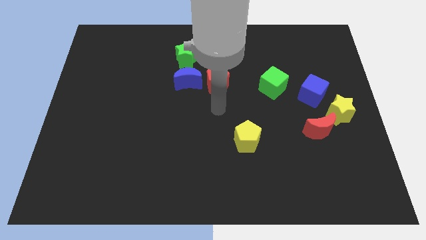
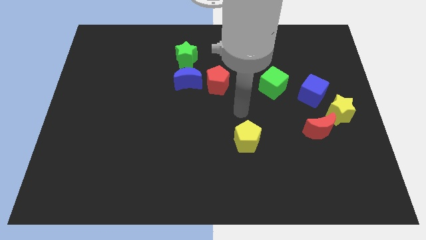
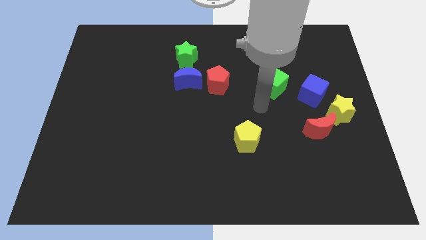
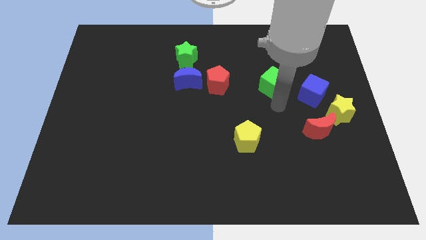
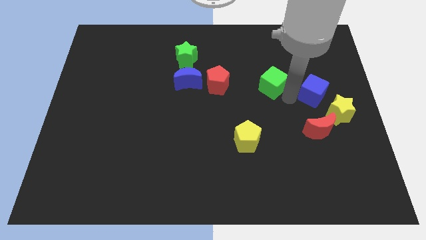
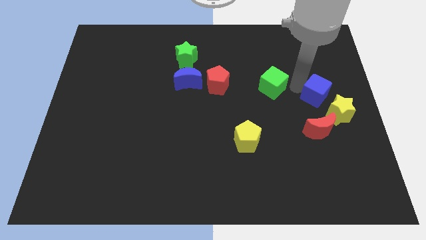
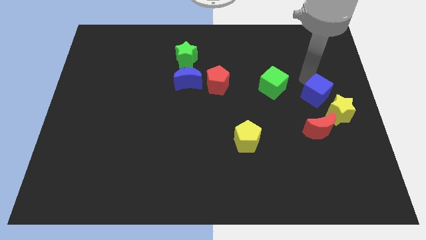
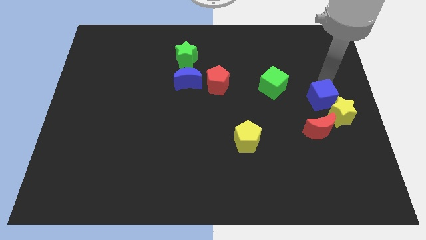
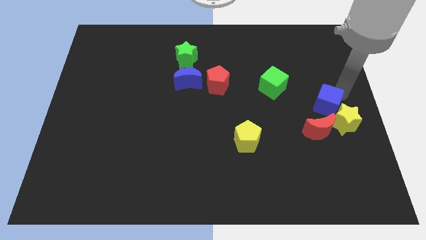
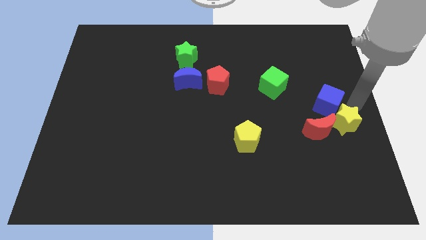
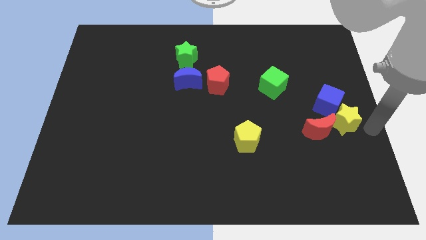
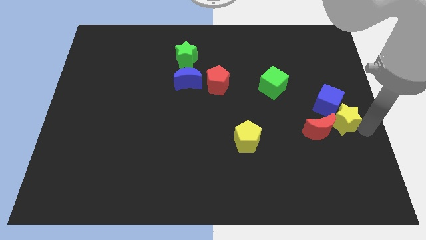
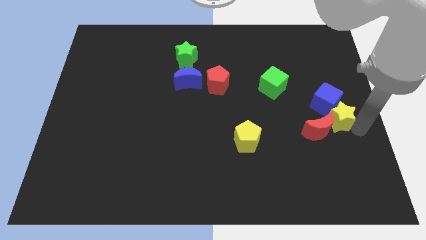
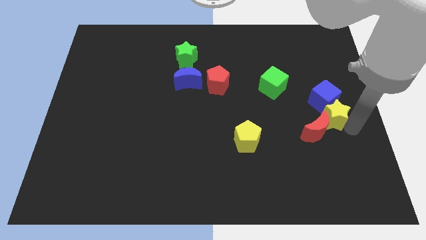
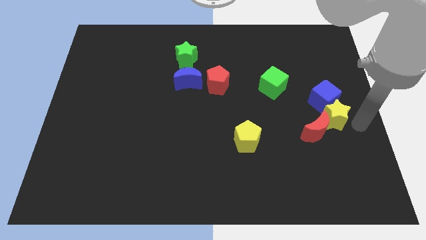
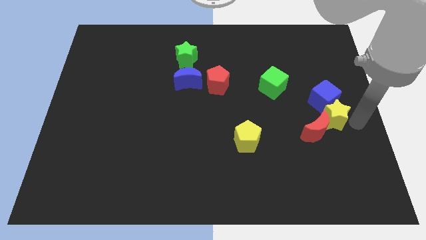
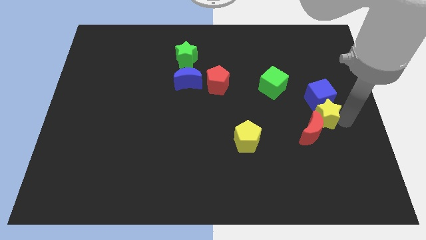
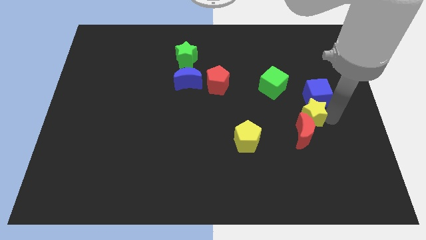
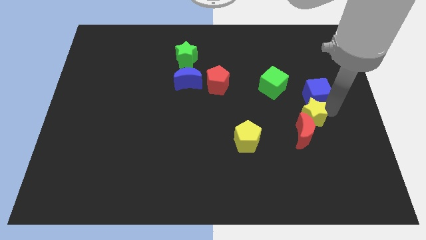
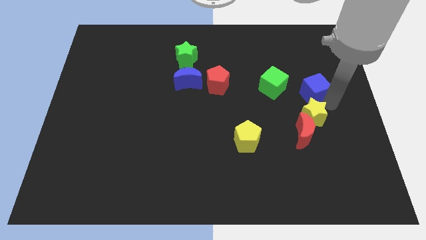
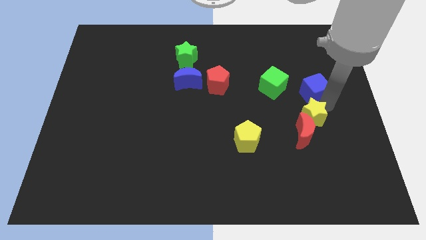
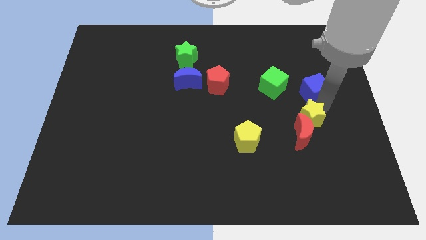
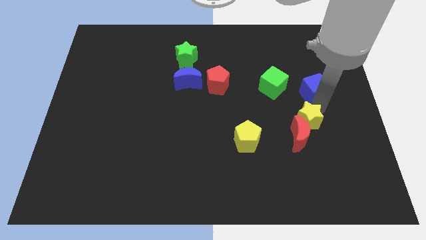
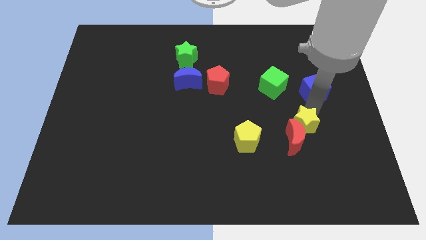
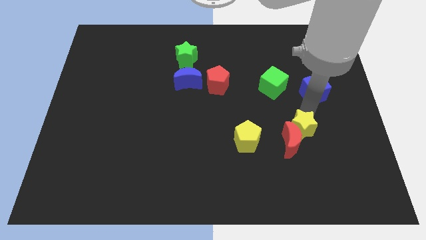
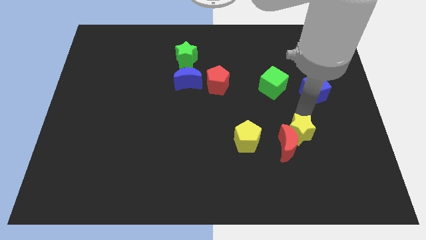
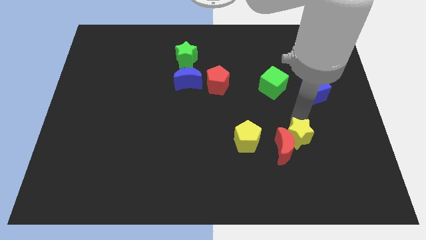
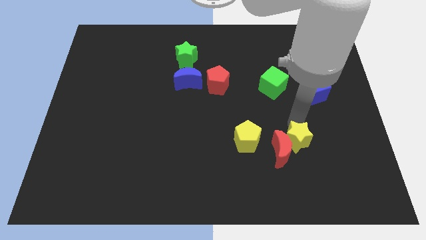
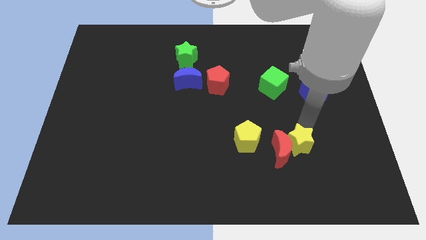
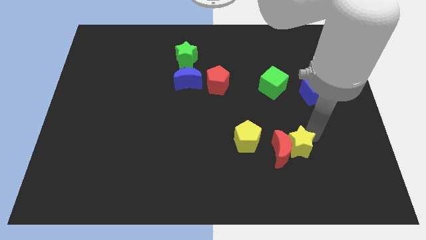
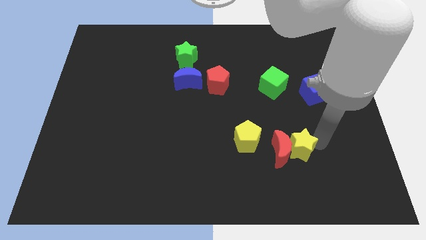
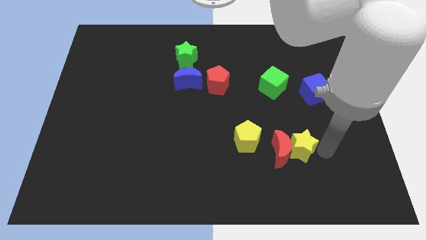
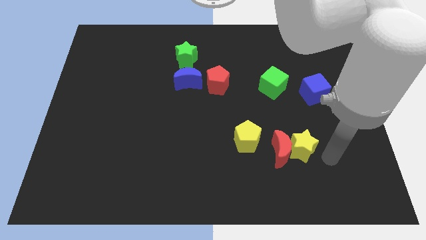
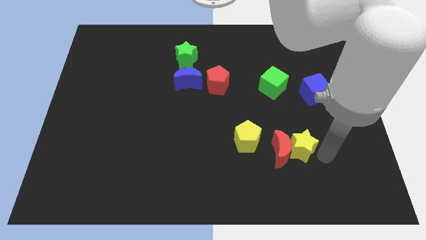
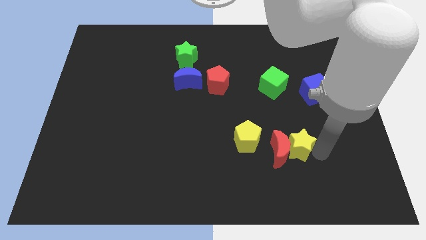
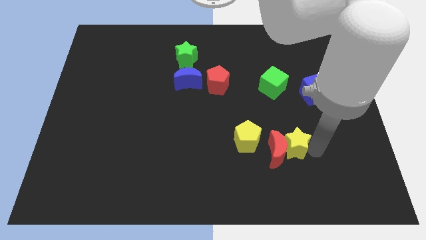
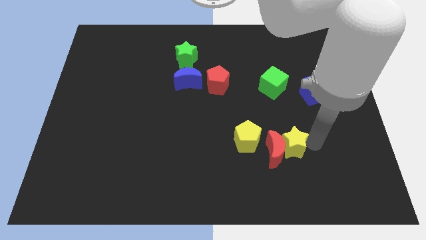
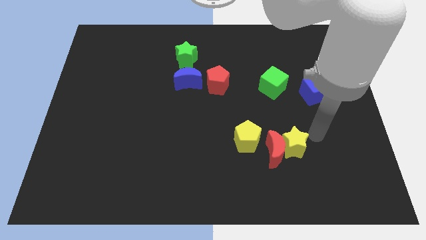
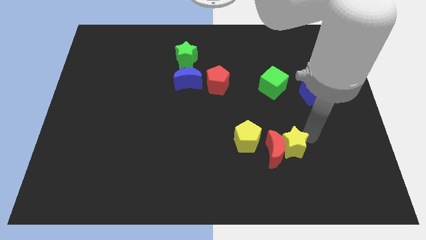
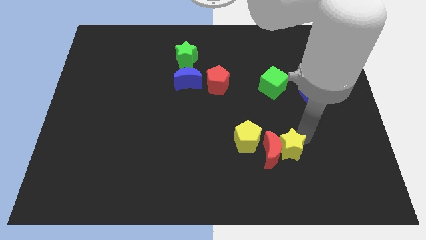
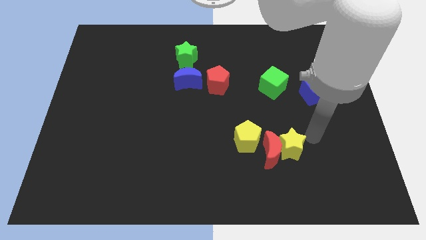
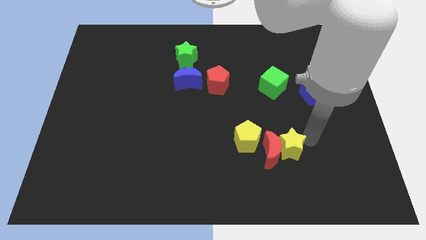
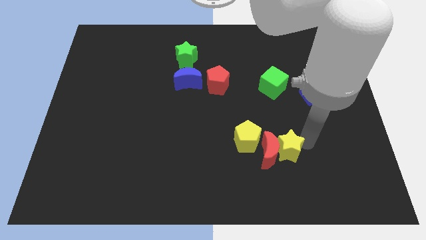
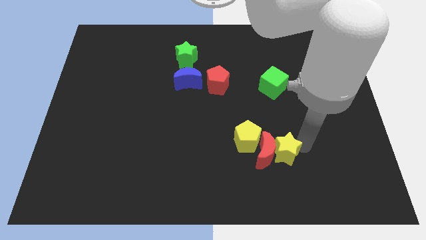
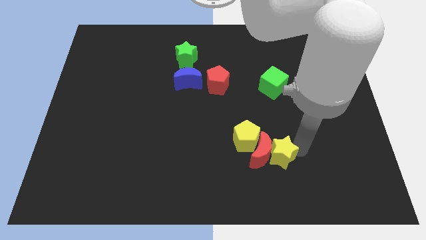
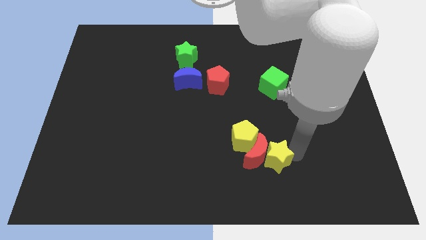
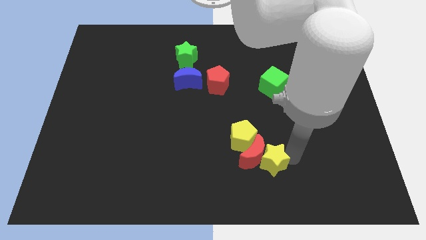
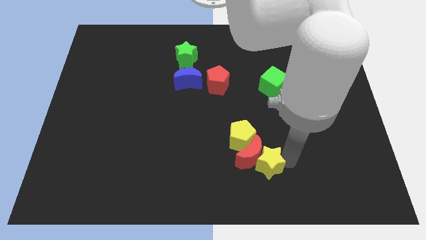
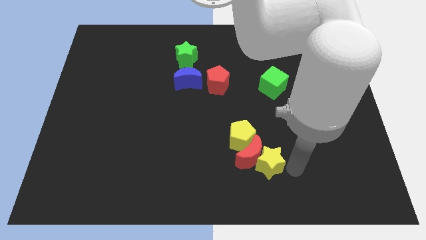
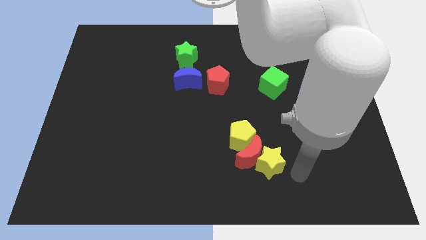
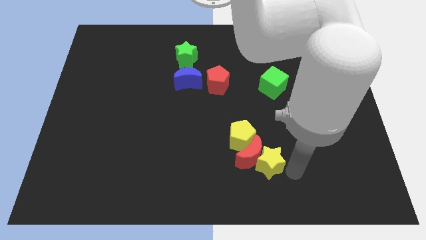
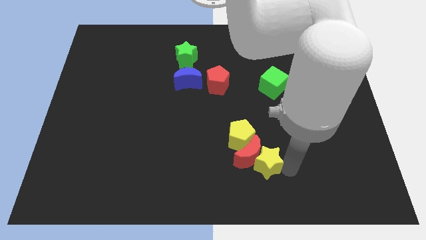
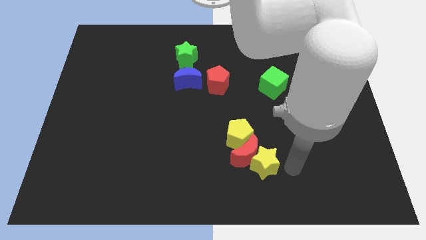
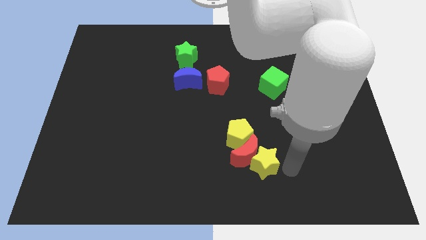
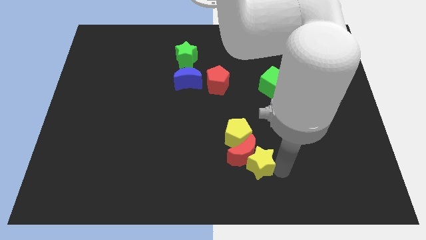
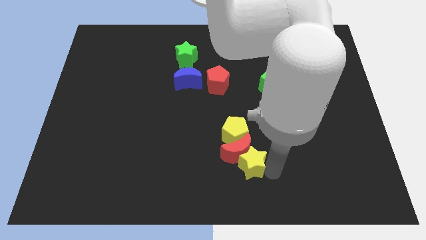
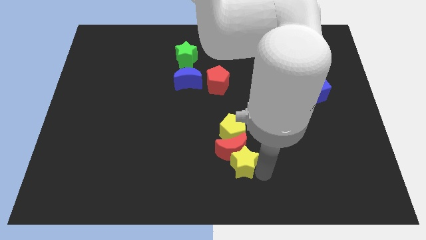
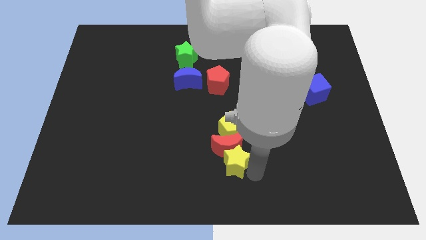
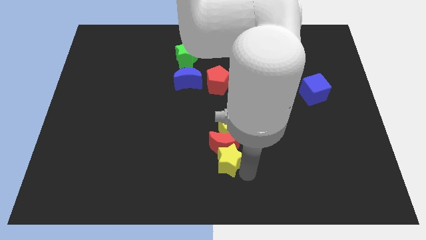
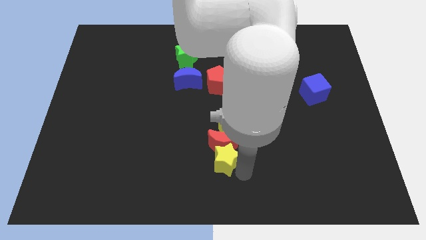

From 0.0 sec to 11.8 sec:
slide the yellow star diagonally down and to the left of the yellow pentagon

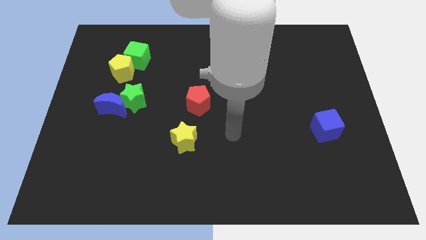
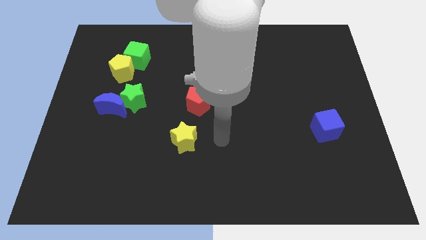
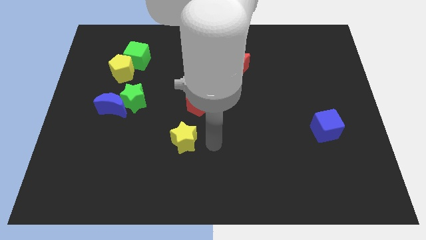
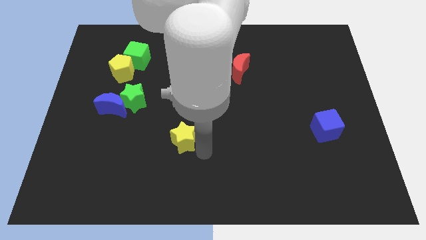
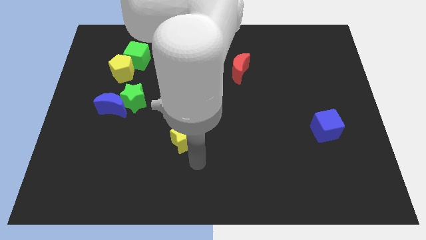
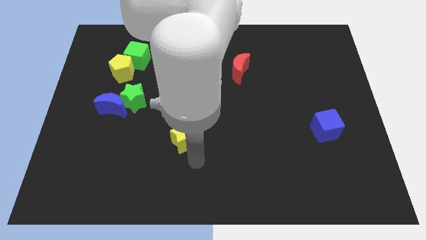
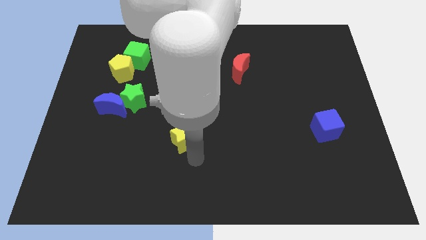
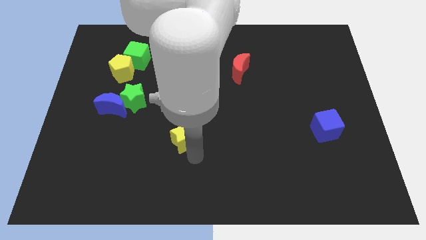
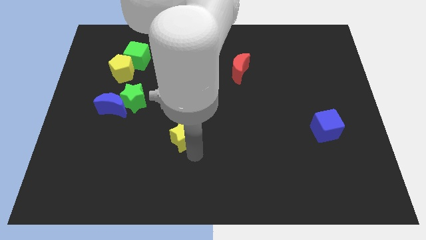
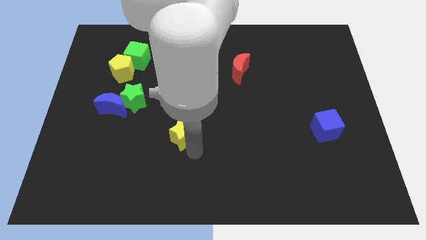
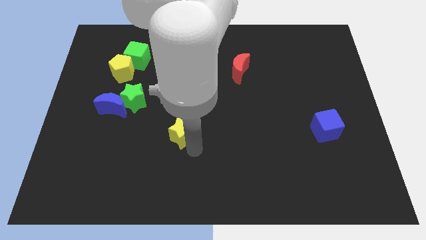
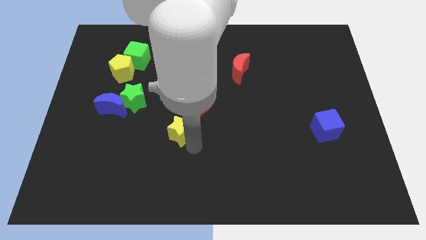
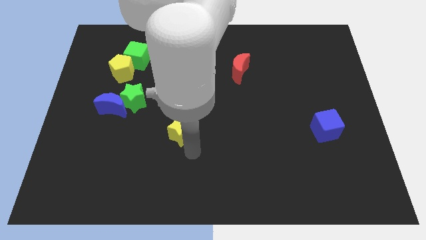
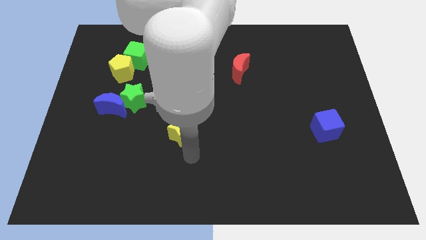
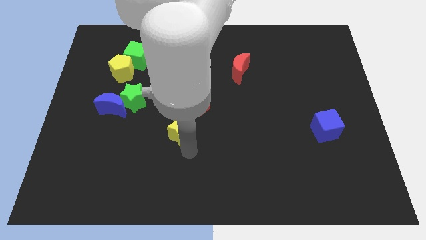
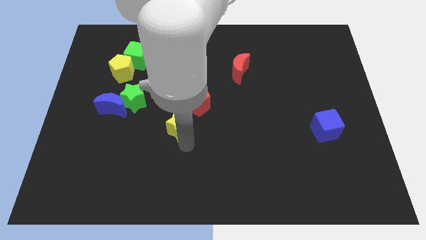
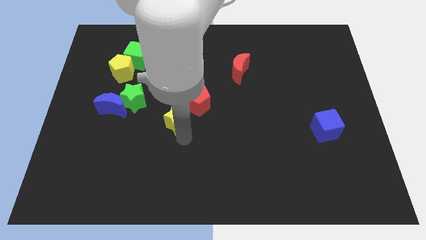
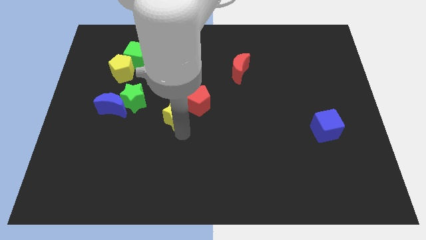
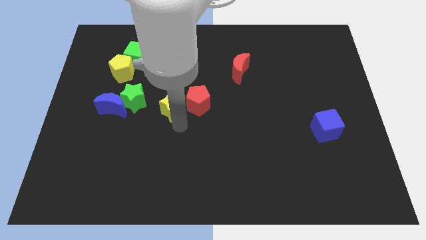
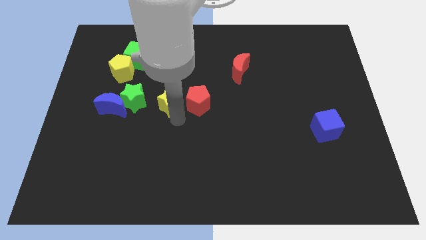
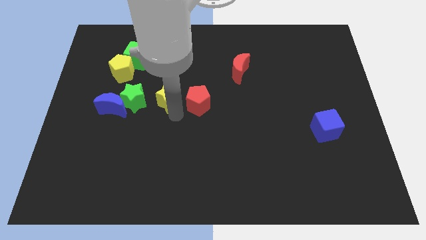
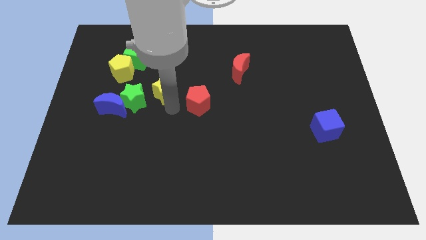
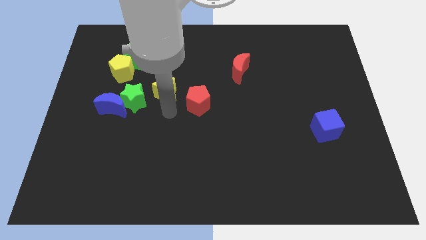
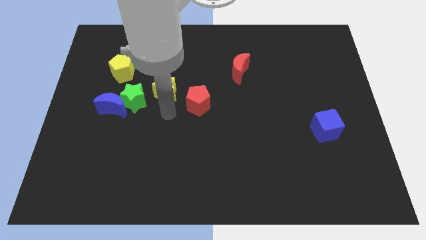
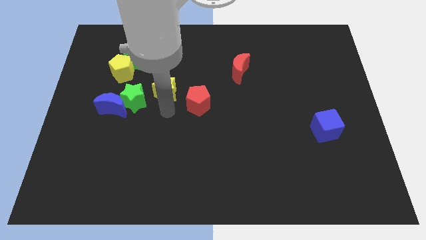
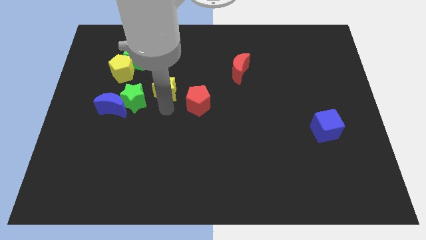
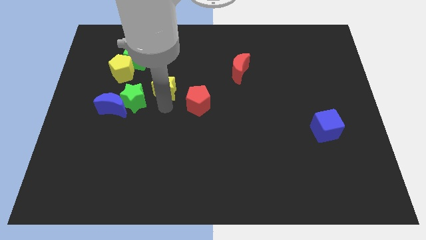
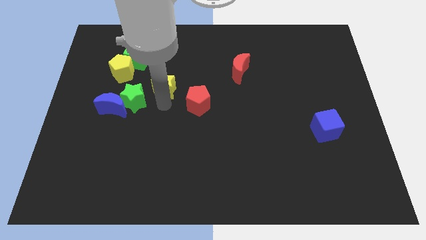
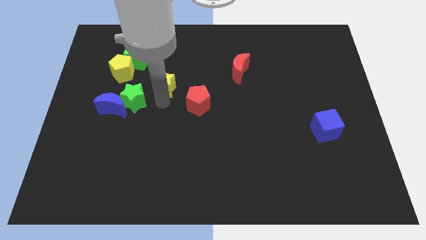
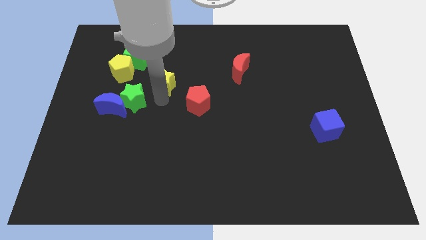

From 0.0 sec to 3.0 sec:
slide the yellow star to the right of the yellow pentagon
